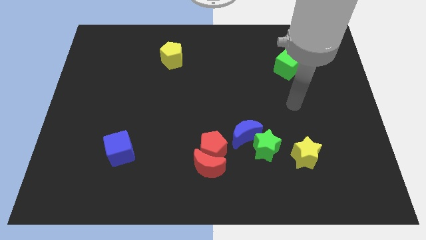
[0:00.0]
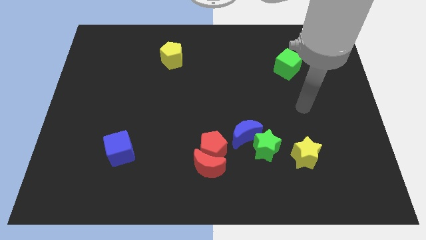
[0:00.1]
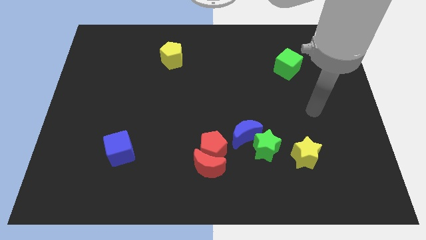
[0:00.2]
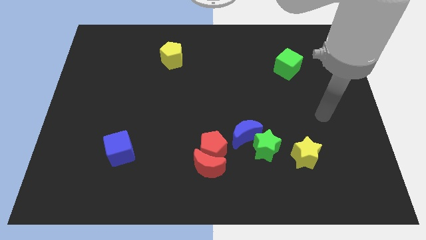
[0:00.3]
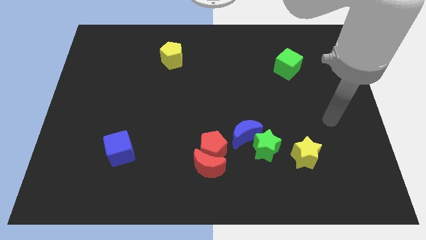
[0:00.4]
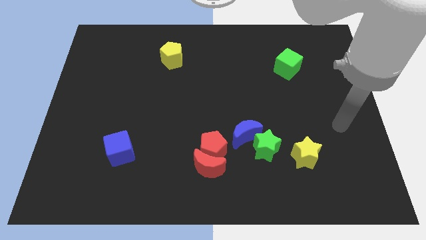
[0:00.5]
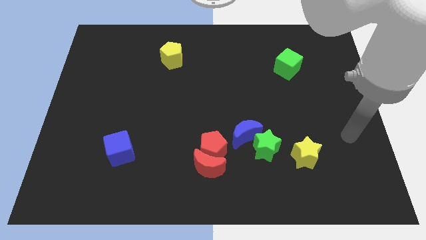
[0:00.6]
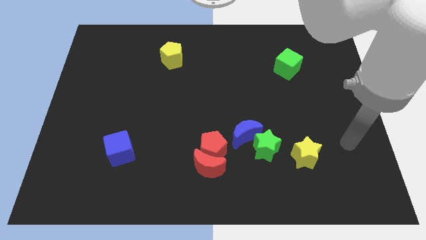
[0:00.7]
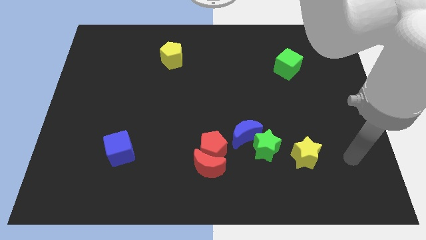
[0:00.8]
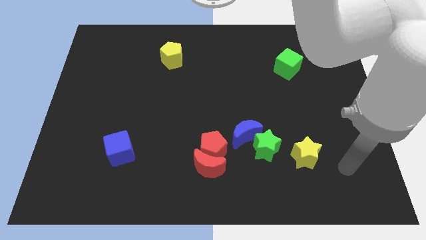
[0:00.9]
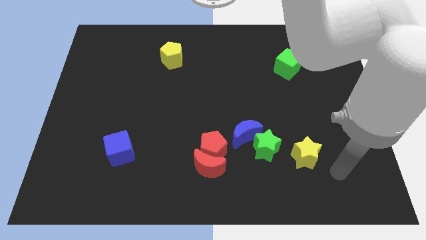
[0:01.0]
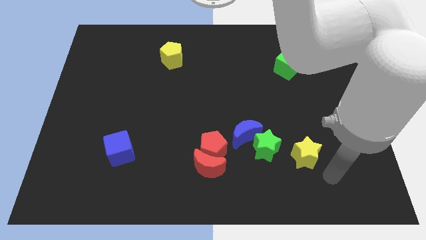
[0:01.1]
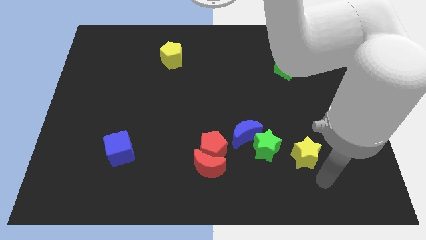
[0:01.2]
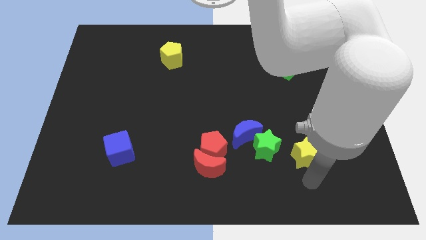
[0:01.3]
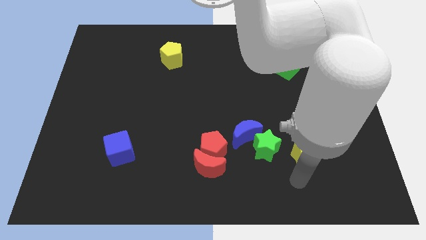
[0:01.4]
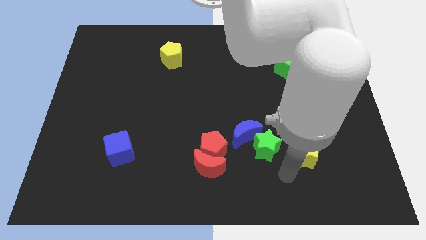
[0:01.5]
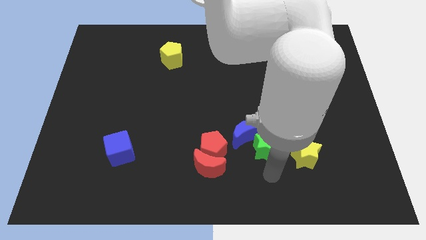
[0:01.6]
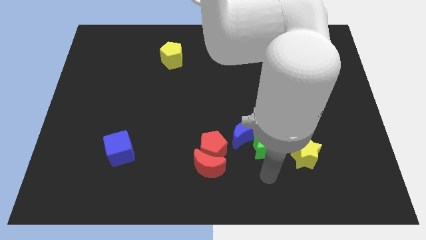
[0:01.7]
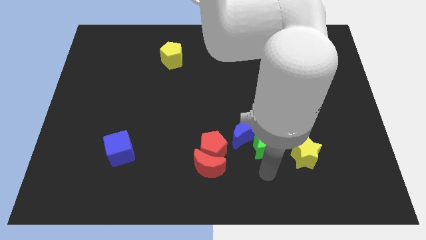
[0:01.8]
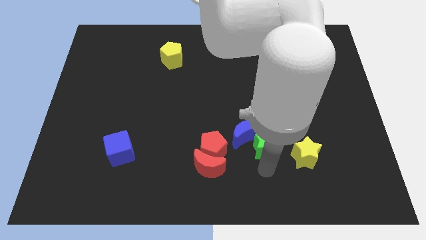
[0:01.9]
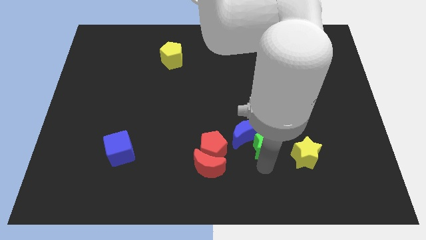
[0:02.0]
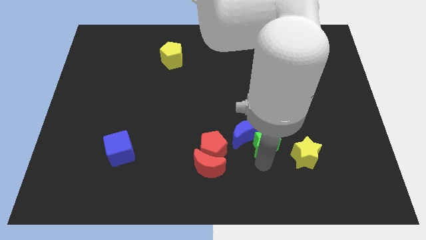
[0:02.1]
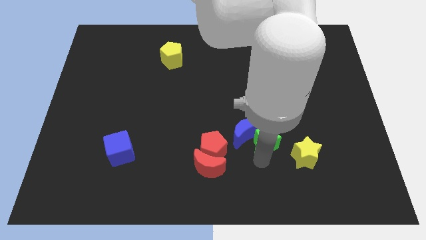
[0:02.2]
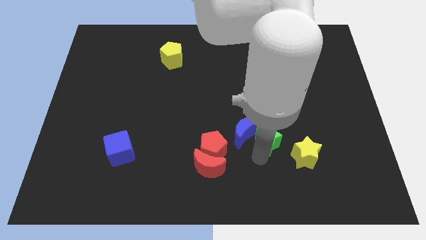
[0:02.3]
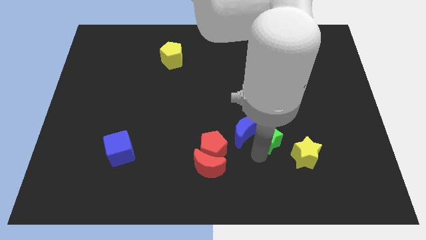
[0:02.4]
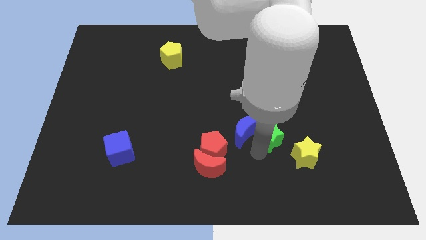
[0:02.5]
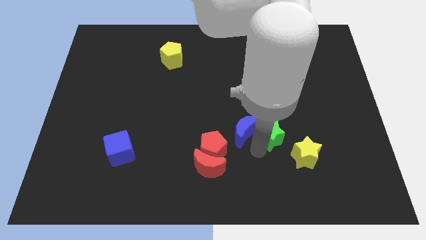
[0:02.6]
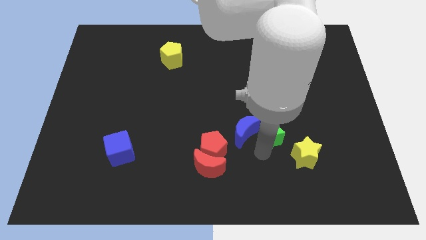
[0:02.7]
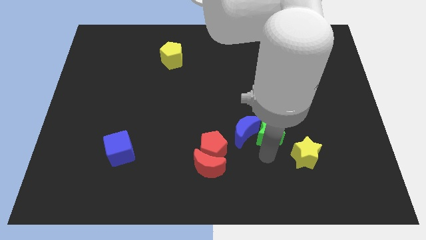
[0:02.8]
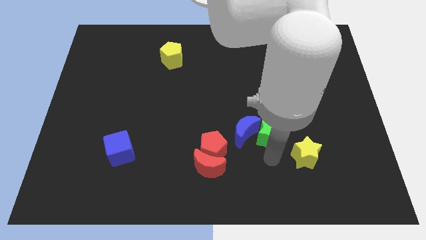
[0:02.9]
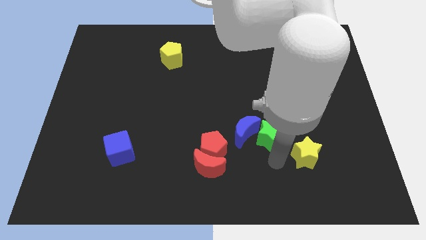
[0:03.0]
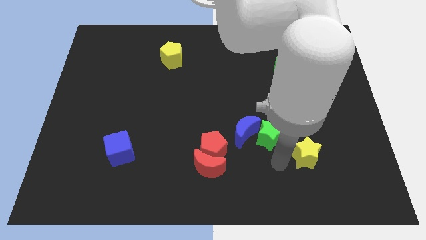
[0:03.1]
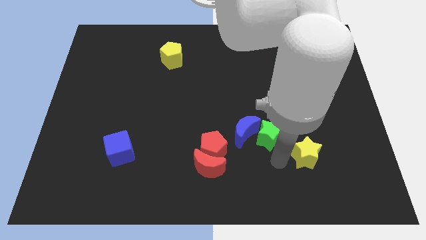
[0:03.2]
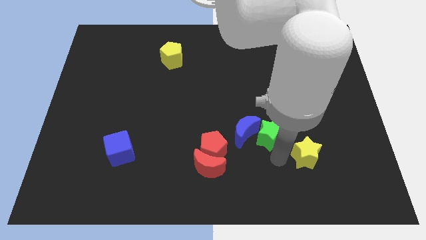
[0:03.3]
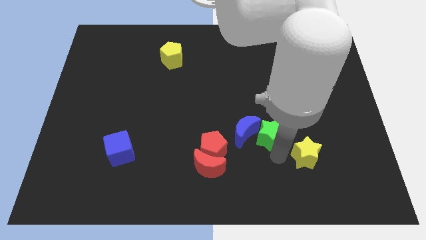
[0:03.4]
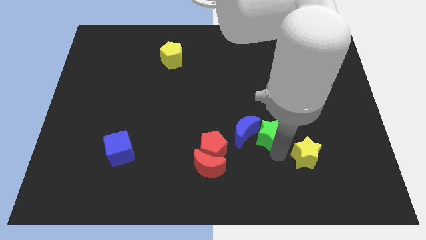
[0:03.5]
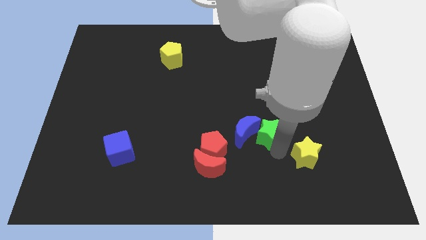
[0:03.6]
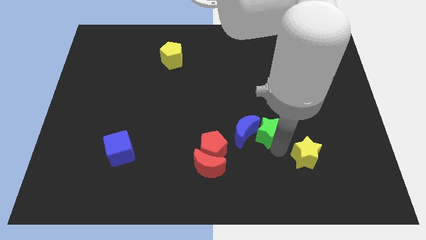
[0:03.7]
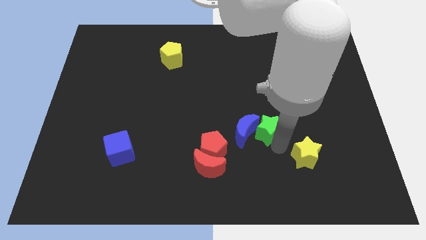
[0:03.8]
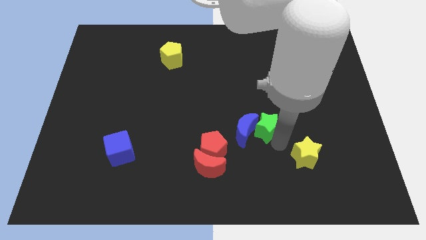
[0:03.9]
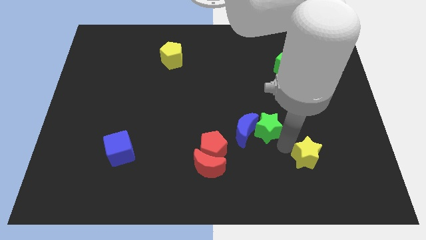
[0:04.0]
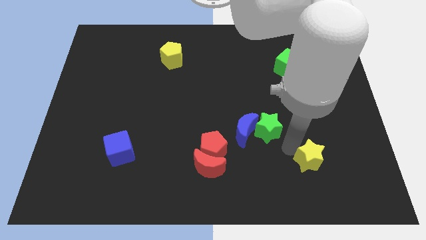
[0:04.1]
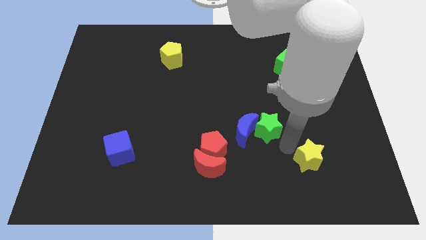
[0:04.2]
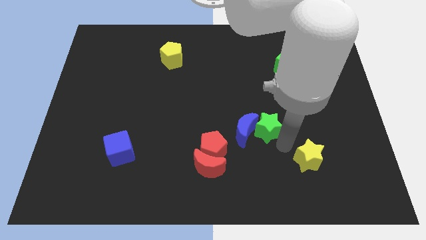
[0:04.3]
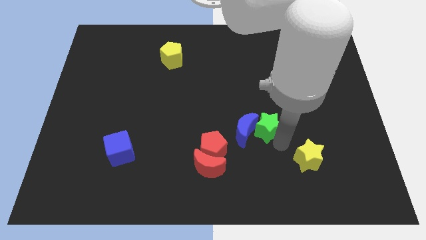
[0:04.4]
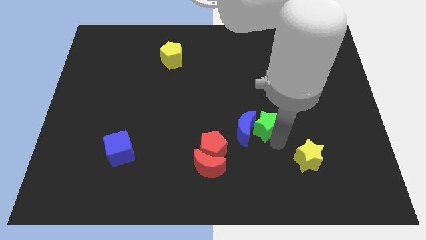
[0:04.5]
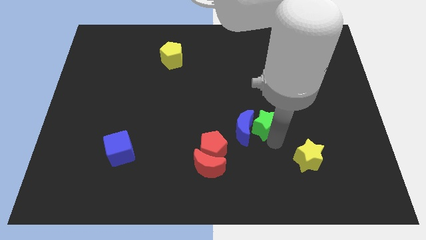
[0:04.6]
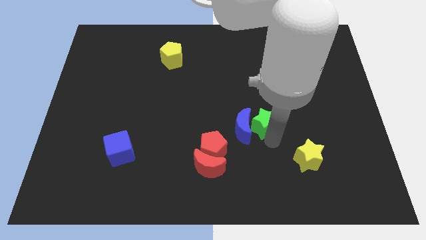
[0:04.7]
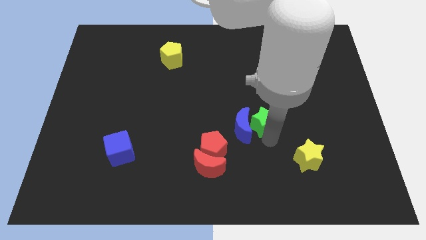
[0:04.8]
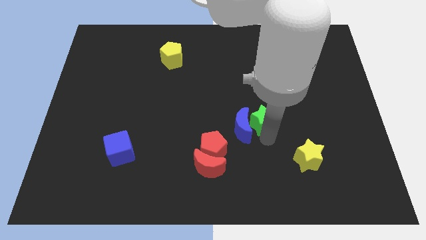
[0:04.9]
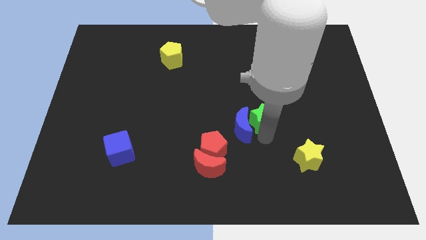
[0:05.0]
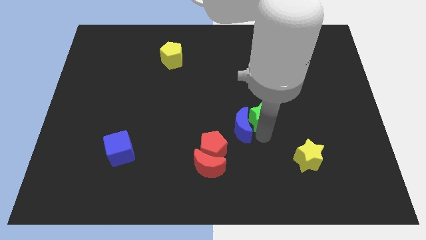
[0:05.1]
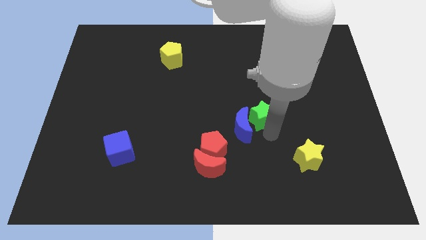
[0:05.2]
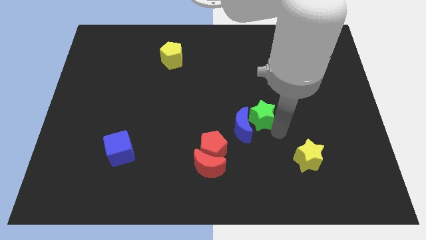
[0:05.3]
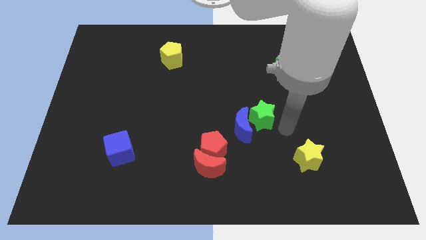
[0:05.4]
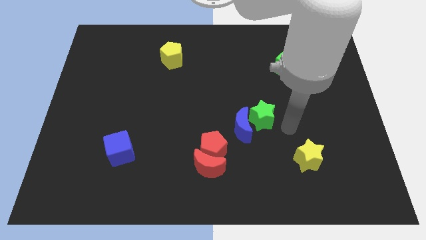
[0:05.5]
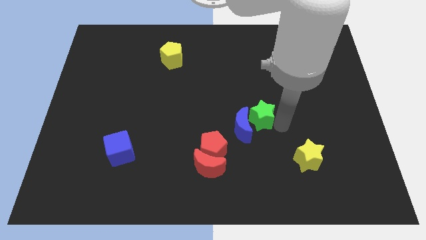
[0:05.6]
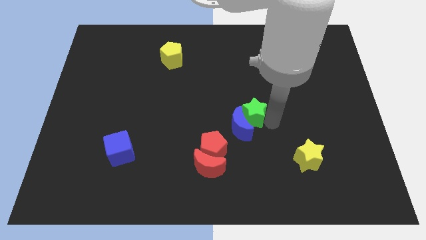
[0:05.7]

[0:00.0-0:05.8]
push the green star diagonally up and left a little bit

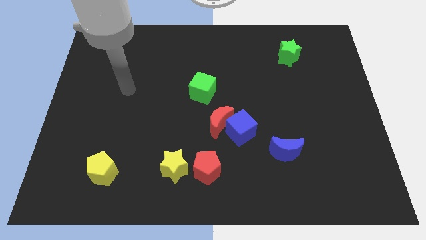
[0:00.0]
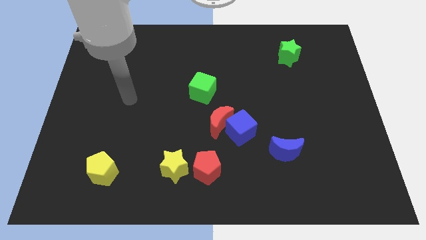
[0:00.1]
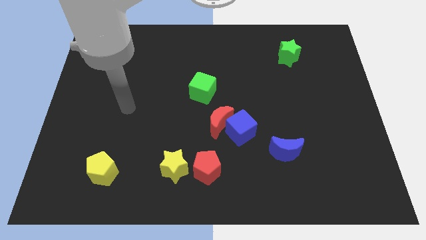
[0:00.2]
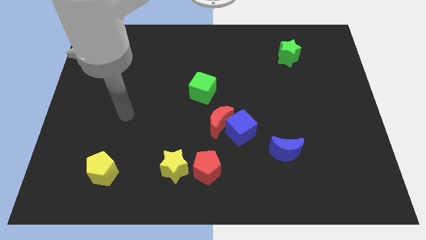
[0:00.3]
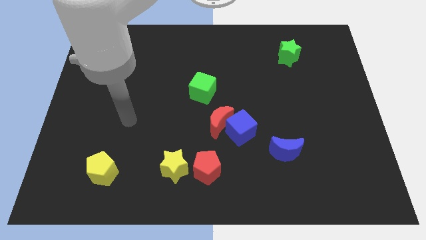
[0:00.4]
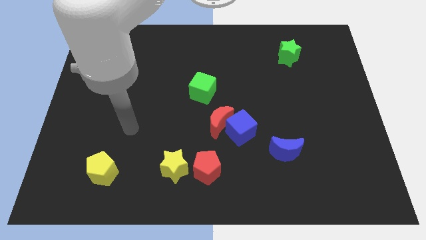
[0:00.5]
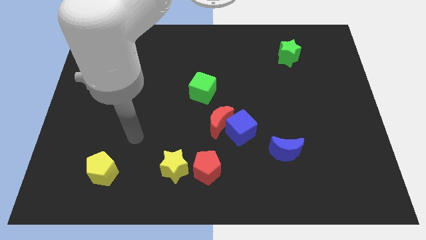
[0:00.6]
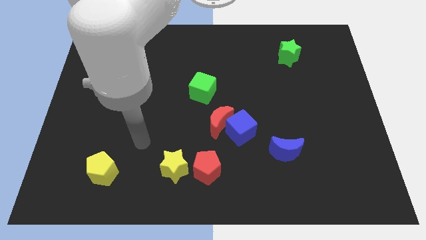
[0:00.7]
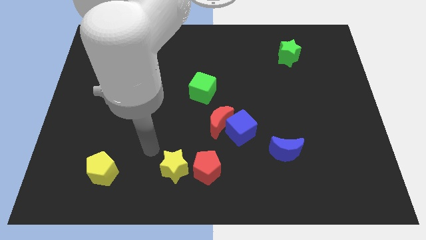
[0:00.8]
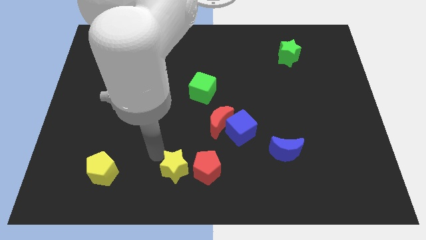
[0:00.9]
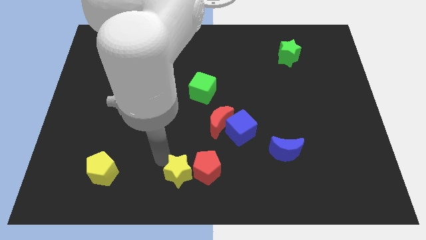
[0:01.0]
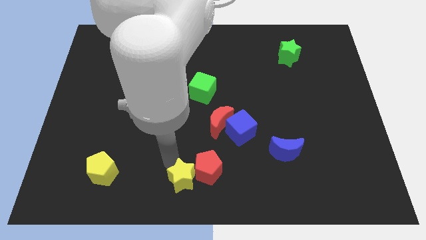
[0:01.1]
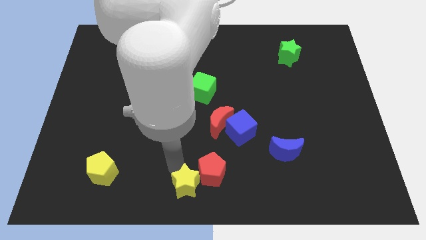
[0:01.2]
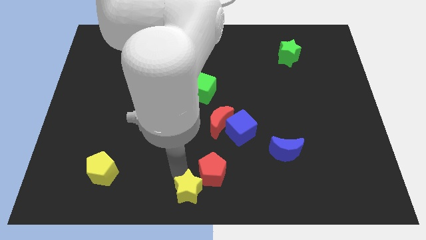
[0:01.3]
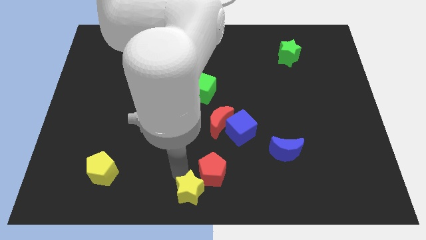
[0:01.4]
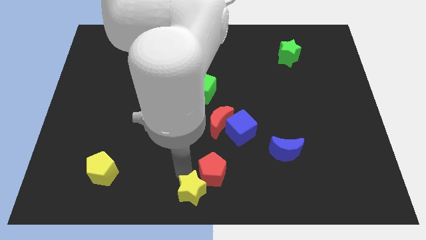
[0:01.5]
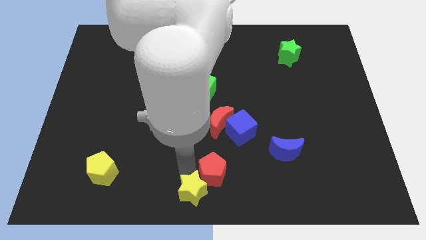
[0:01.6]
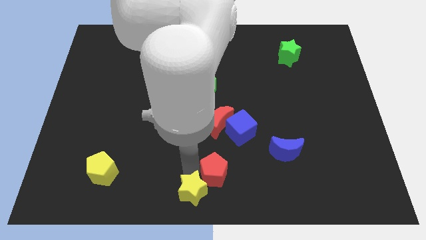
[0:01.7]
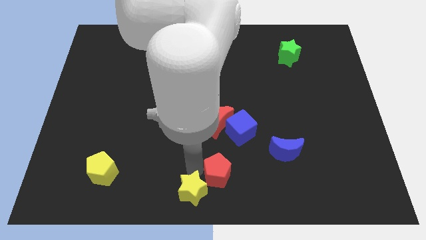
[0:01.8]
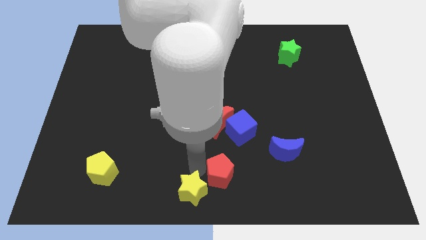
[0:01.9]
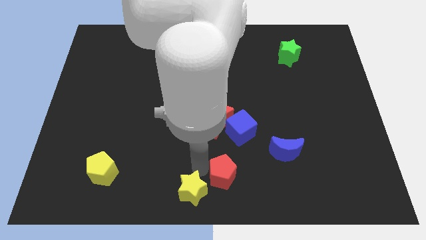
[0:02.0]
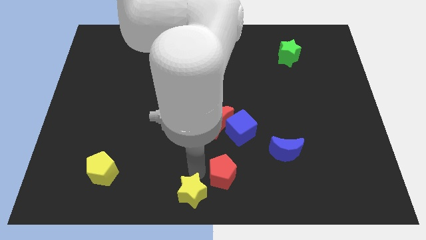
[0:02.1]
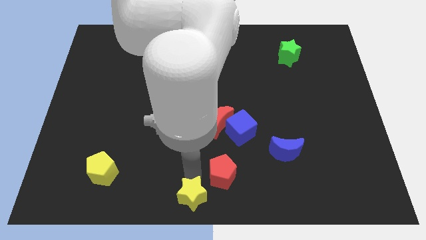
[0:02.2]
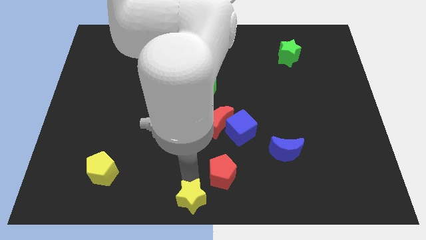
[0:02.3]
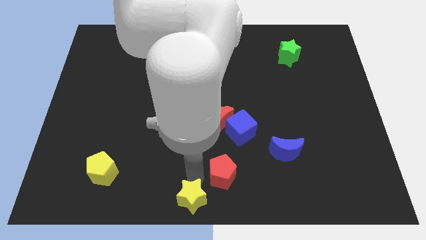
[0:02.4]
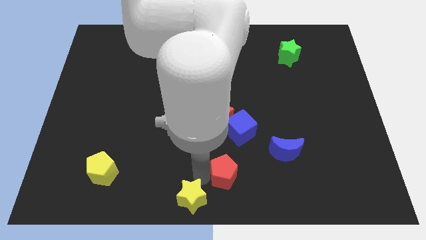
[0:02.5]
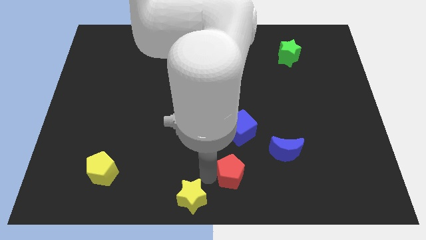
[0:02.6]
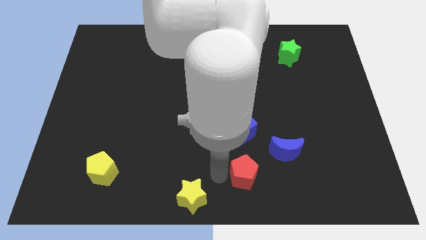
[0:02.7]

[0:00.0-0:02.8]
slide the red pentagon a little bit to the right
